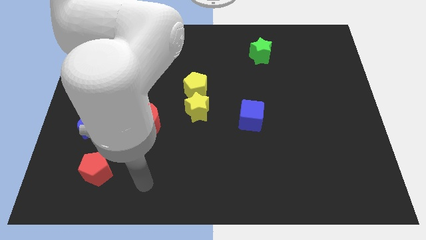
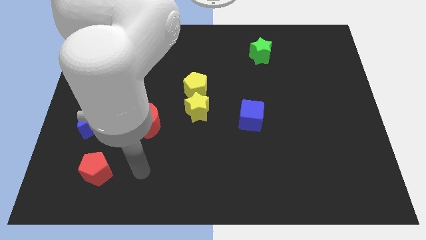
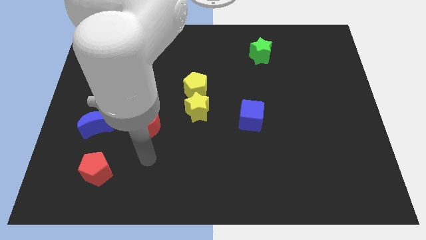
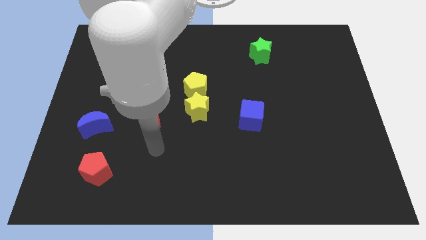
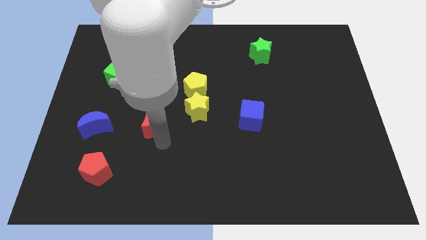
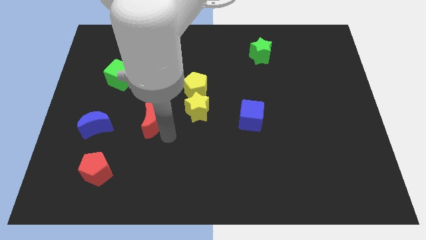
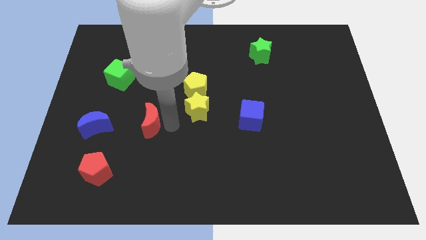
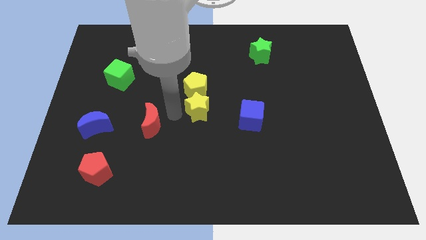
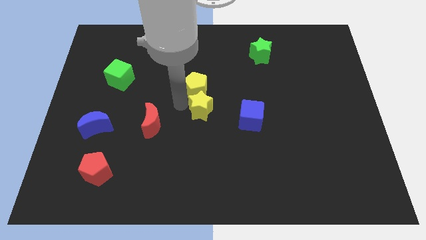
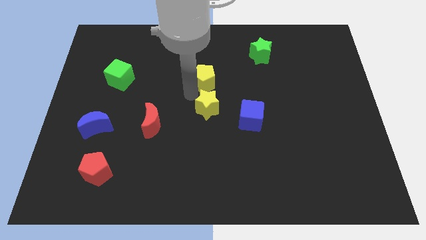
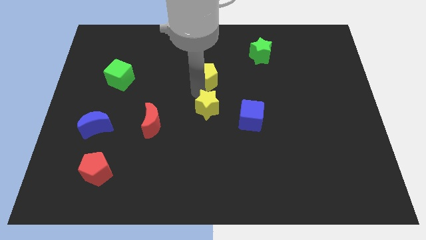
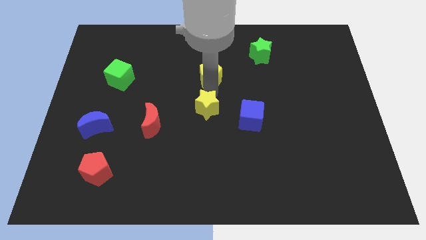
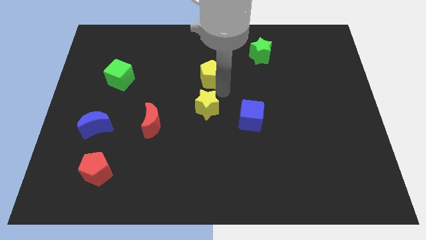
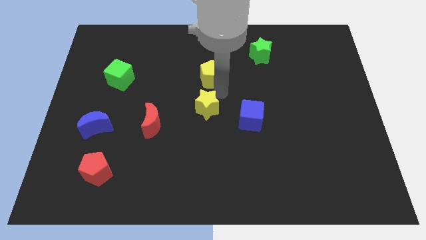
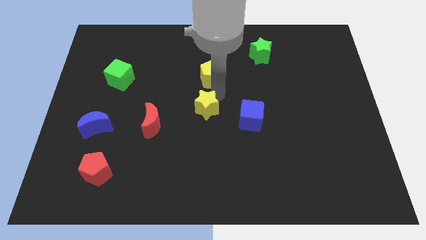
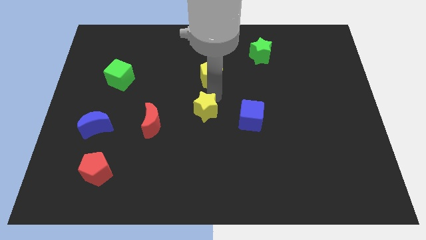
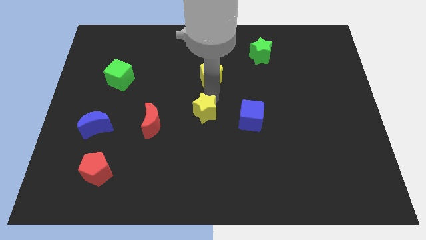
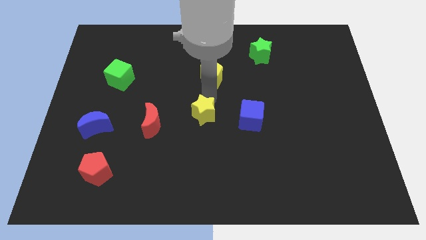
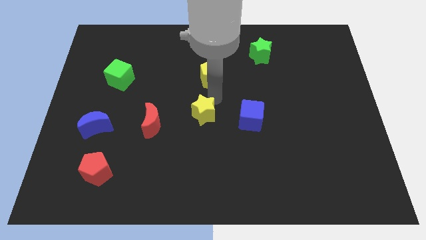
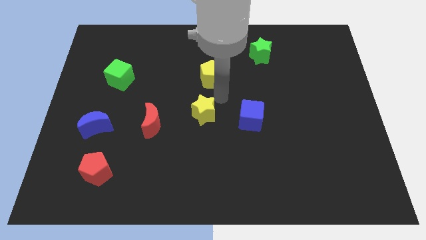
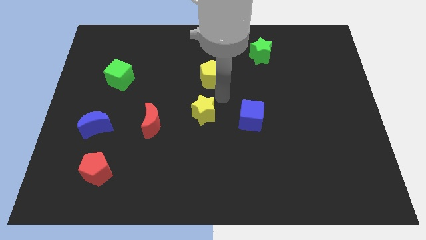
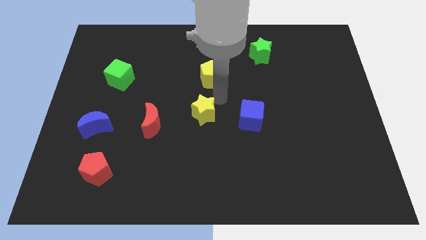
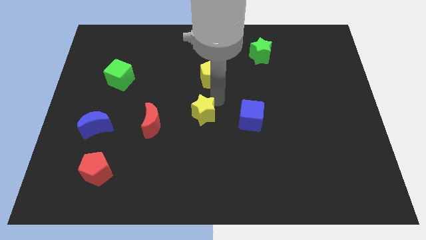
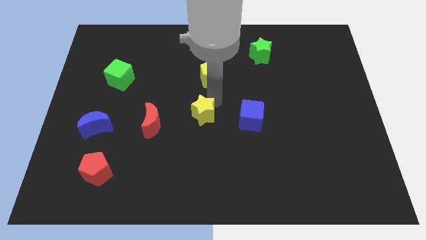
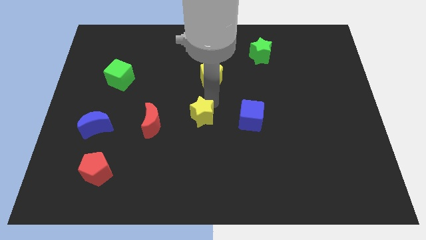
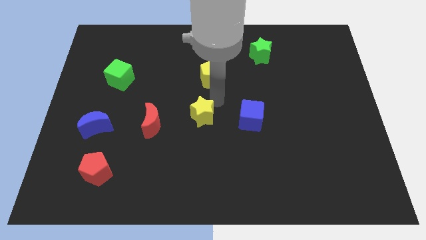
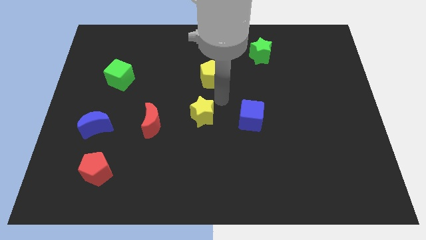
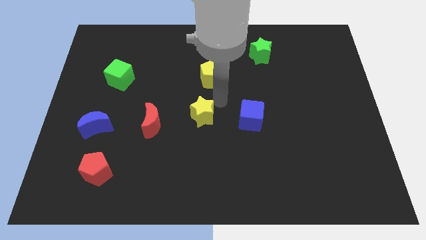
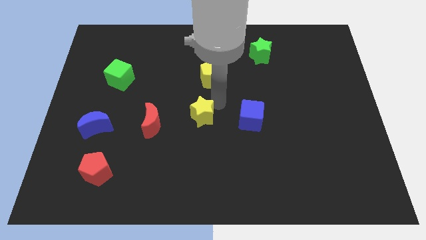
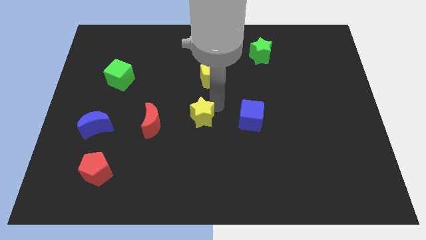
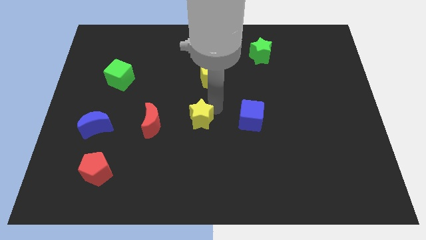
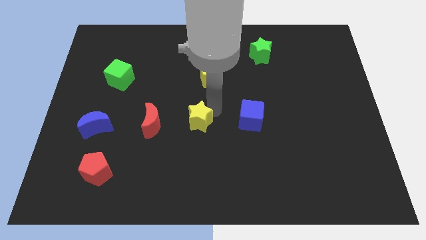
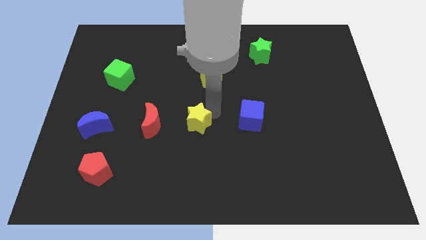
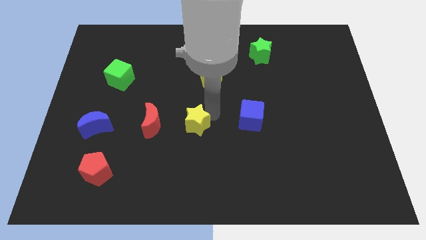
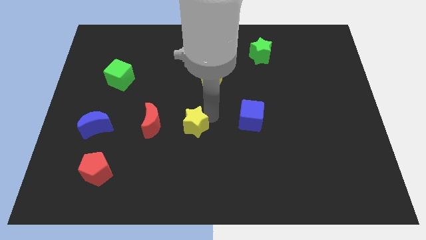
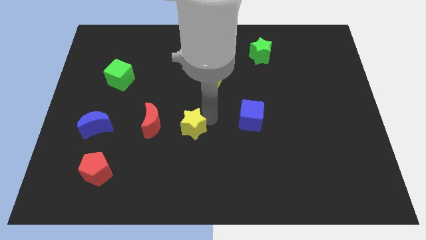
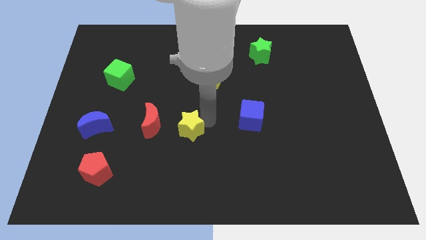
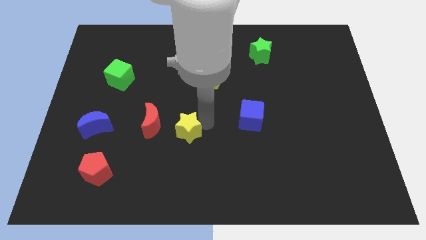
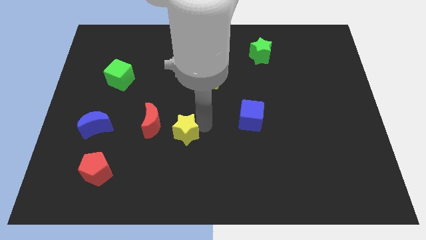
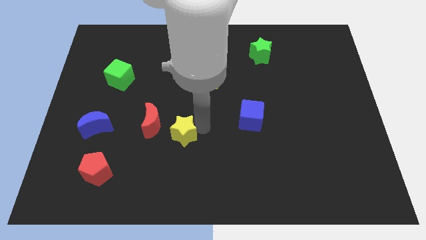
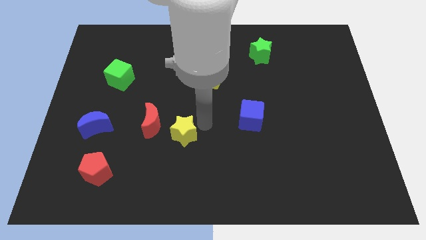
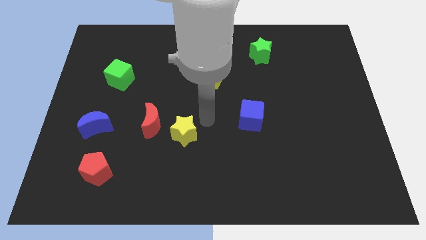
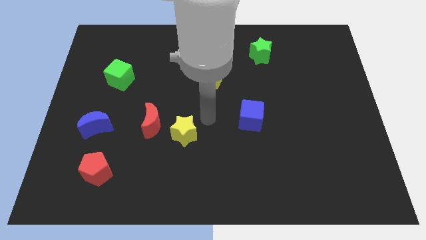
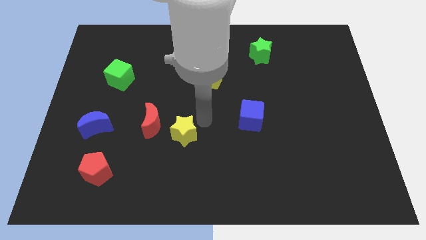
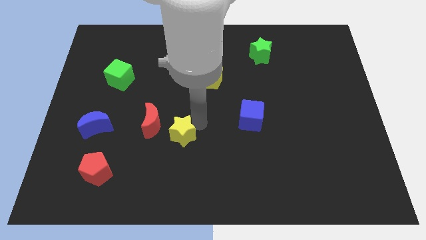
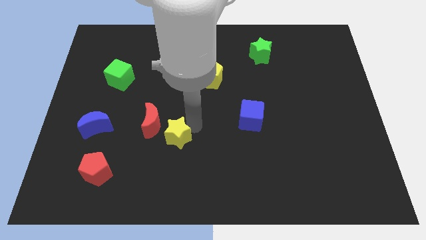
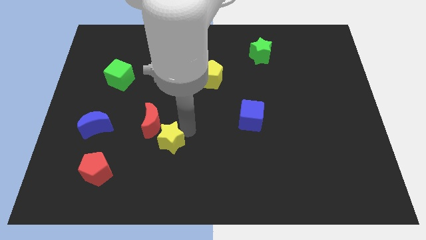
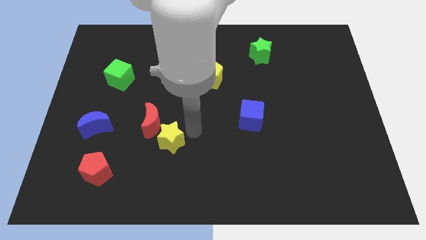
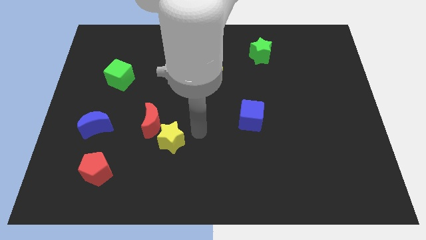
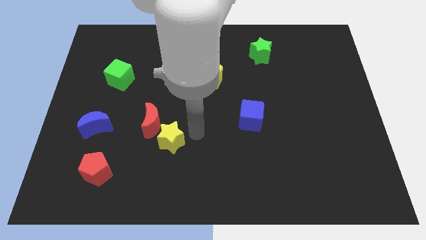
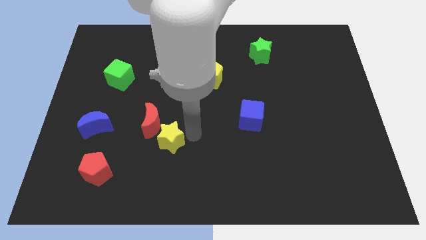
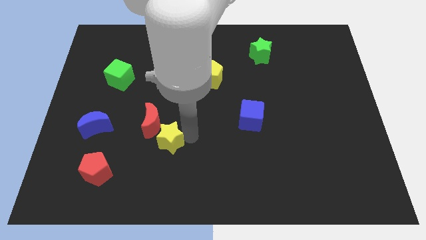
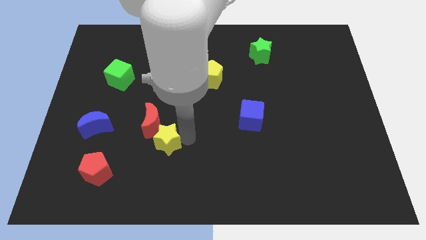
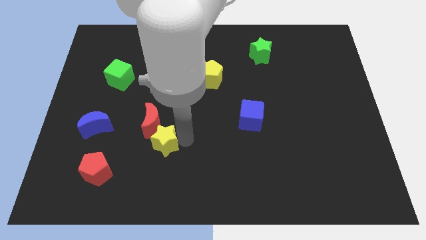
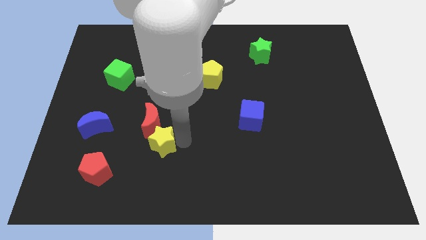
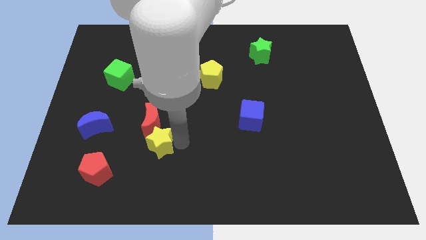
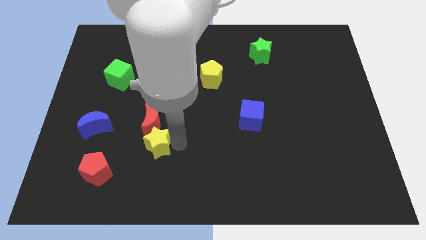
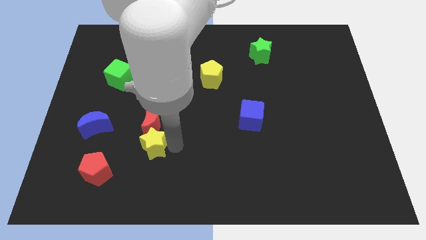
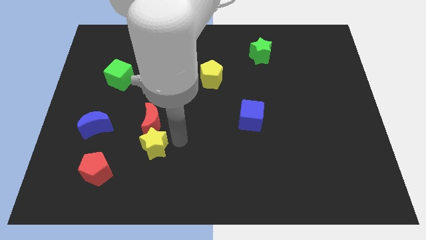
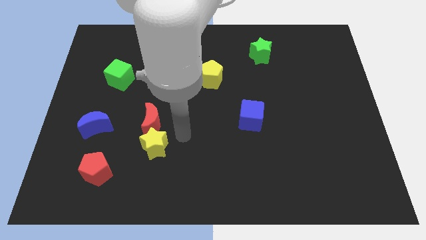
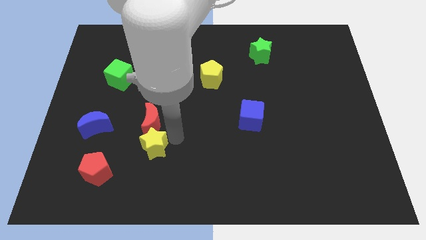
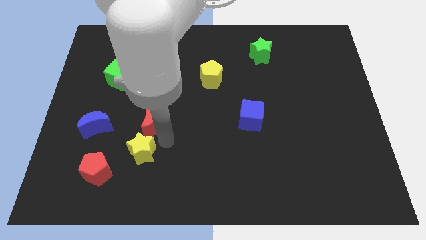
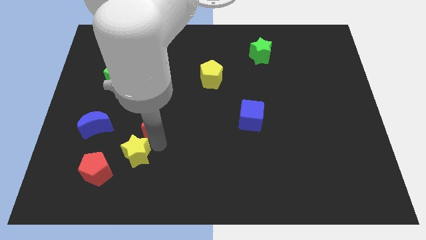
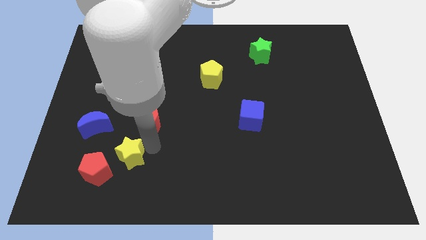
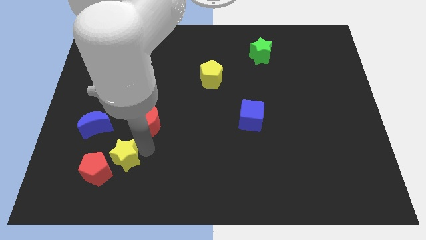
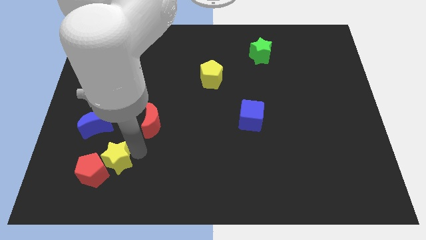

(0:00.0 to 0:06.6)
move the yellow star next to the red pentagon

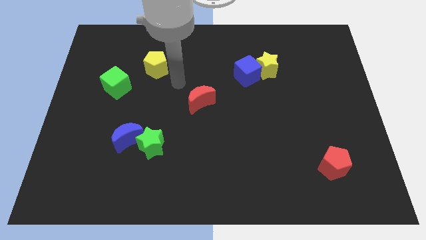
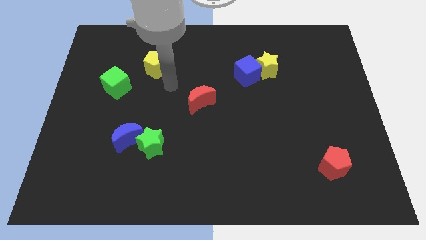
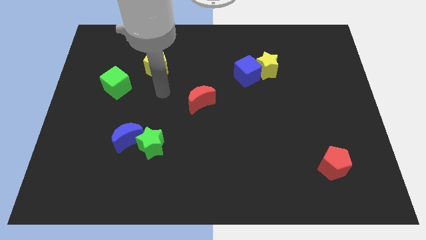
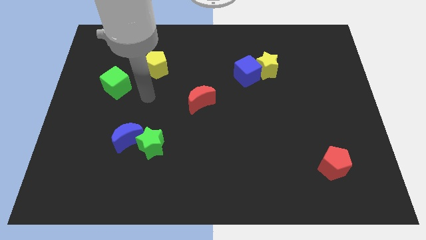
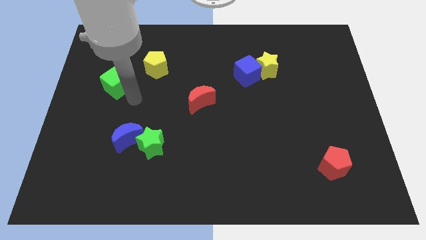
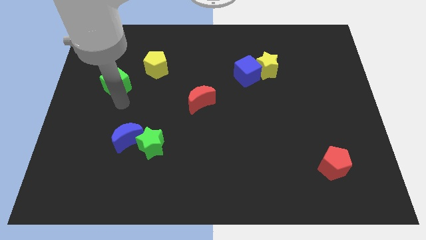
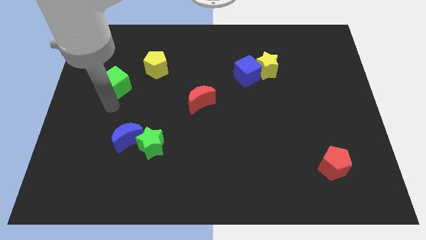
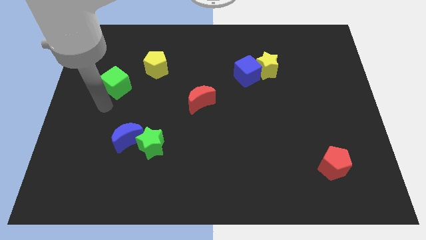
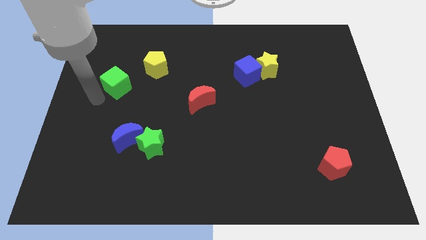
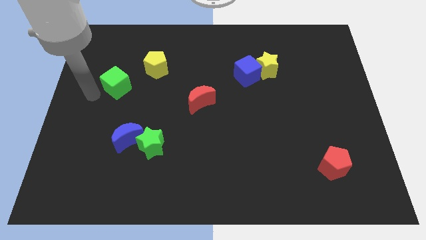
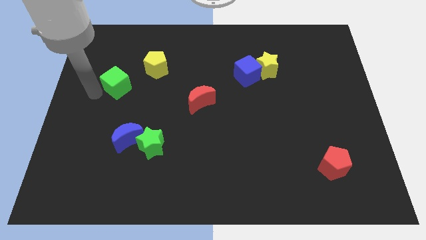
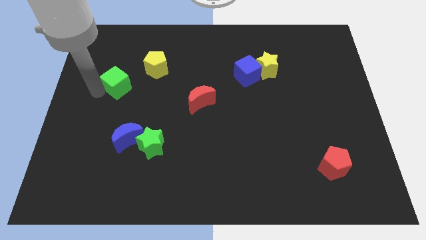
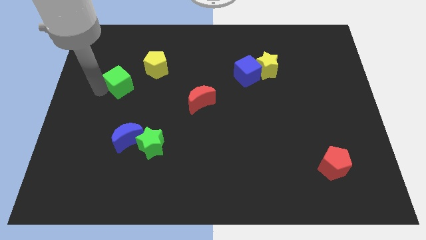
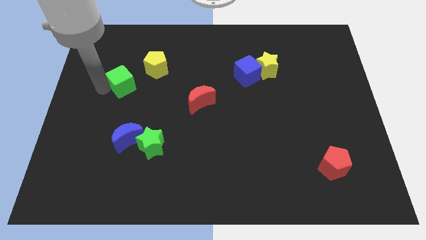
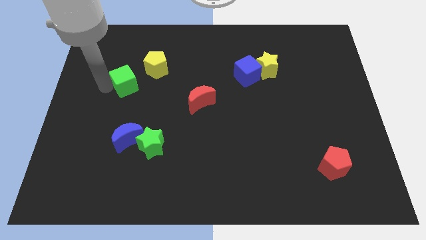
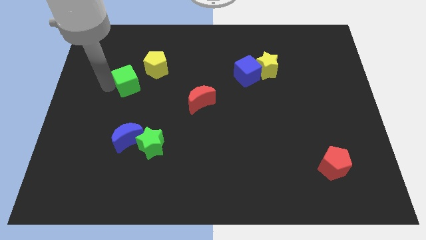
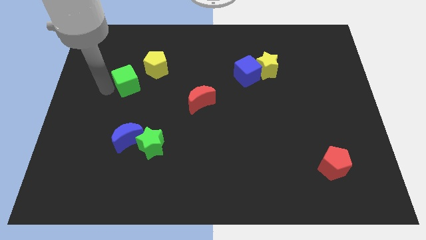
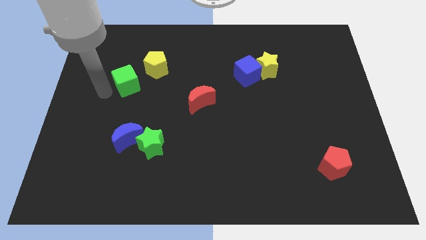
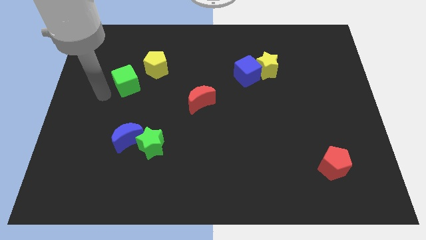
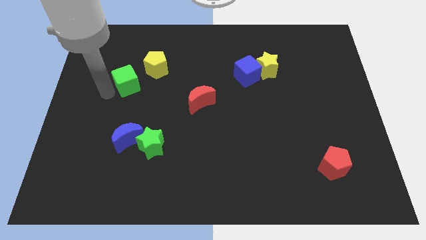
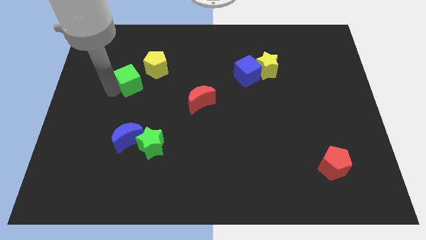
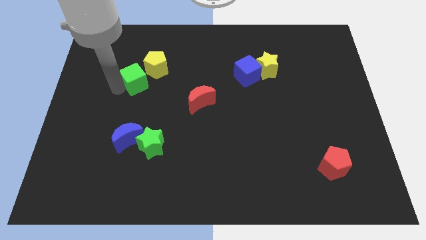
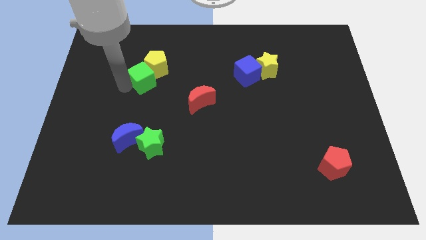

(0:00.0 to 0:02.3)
put the green cube towards the yellow pentagon
